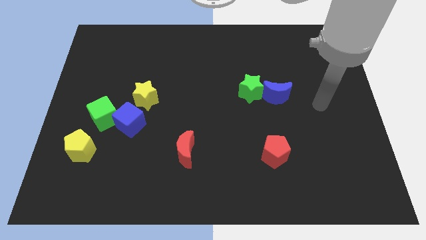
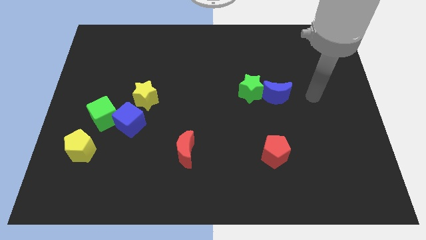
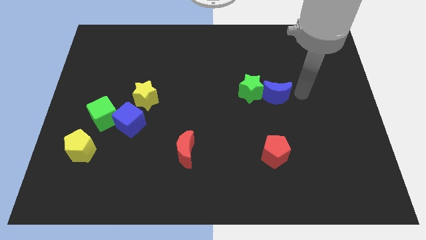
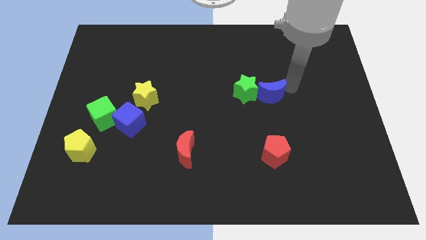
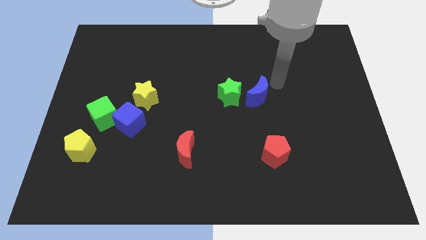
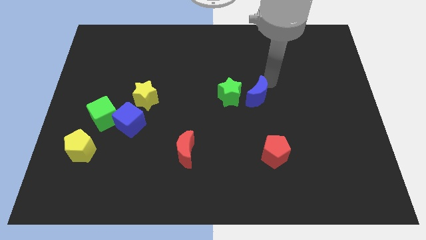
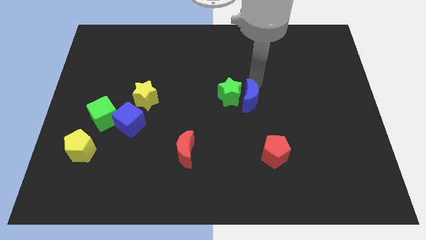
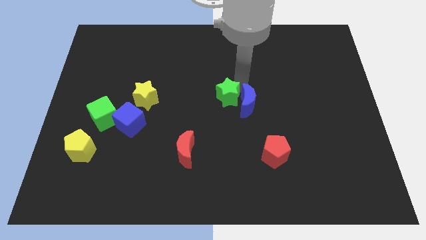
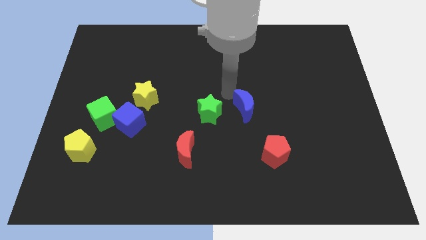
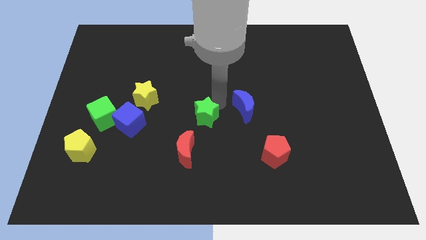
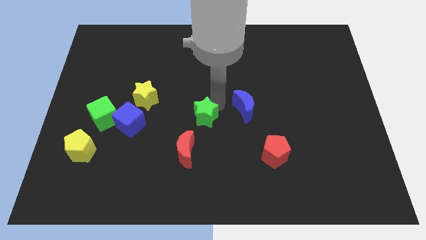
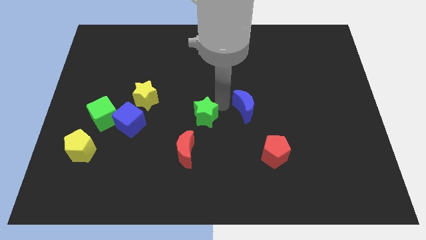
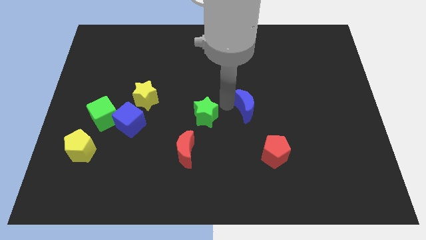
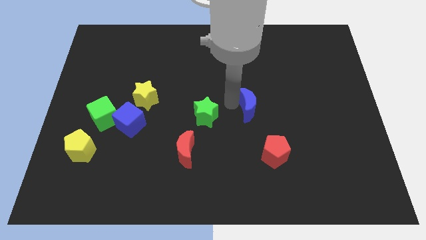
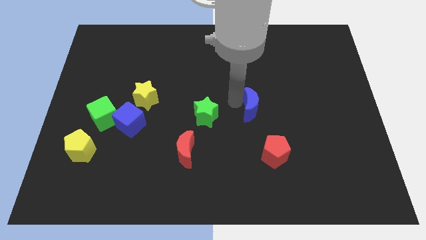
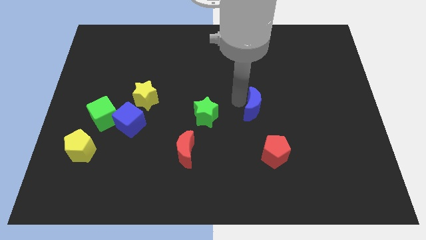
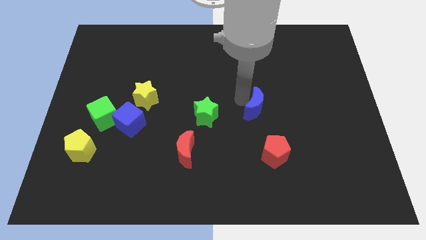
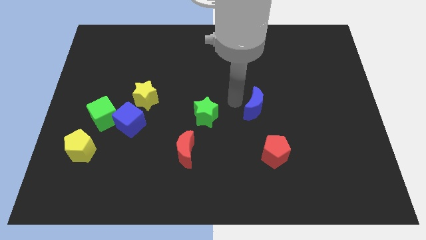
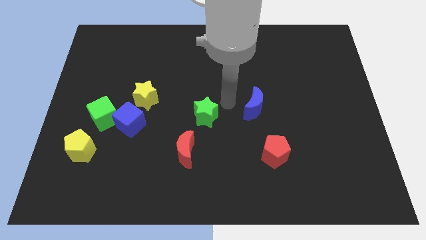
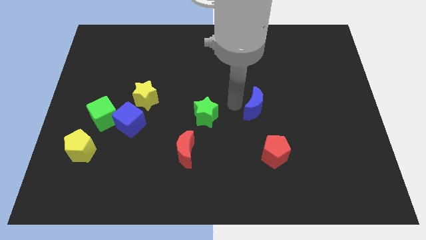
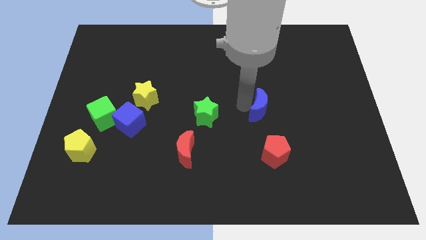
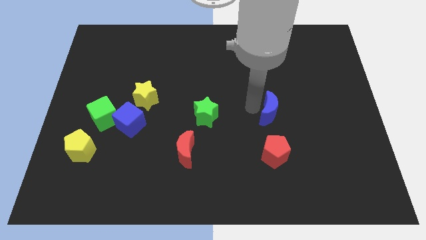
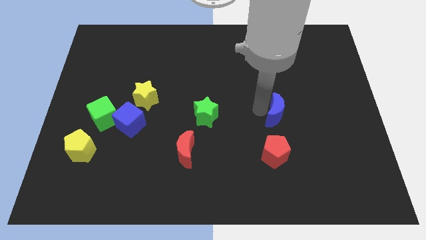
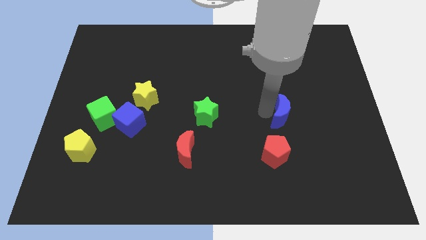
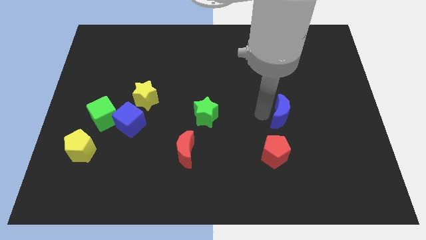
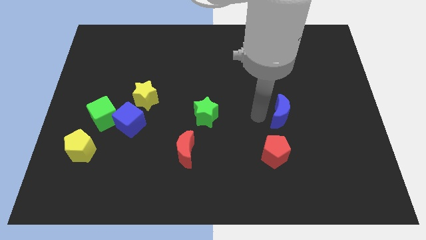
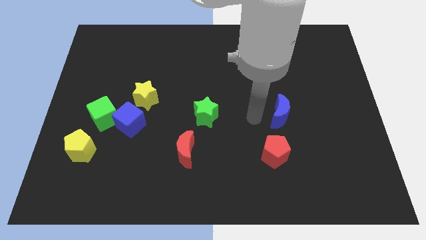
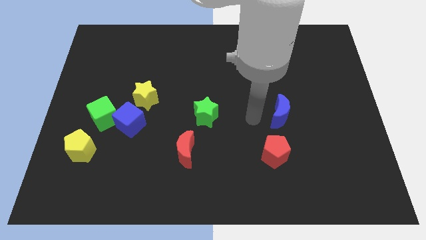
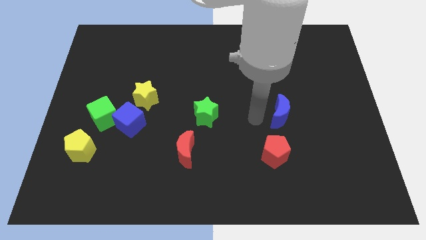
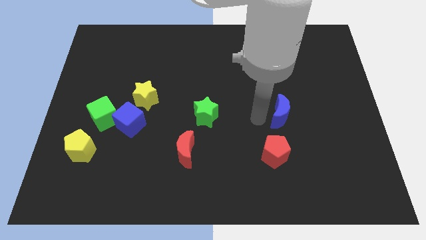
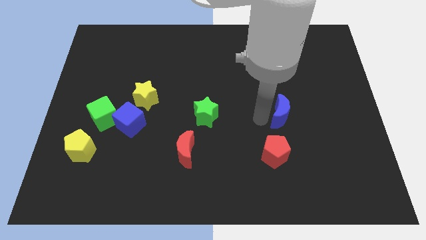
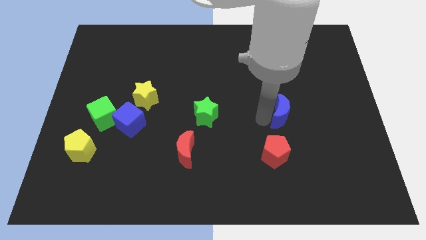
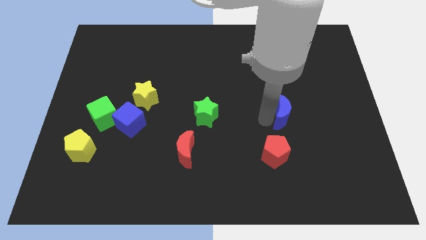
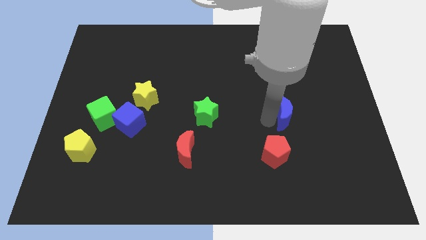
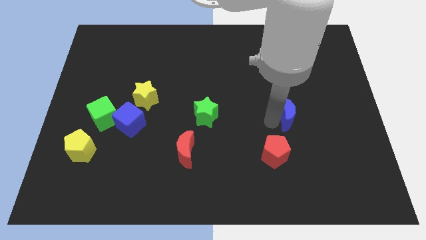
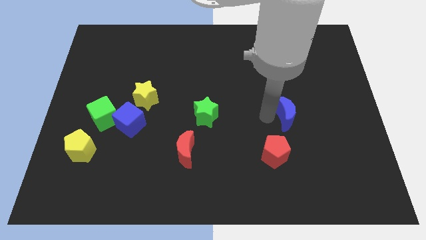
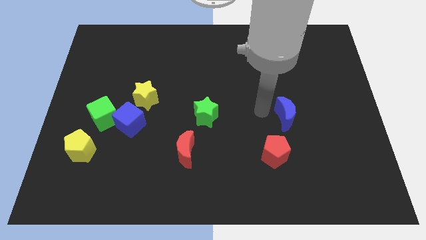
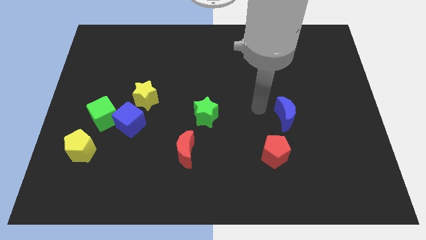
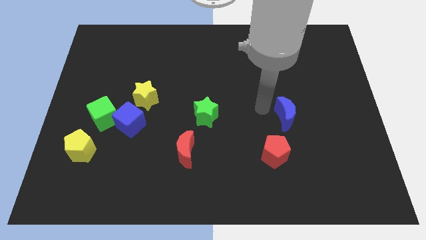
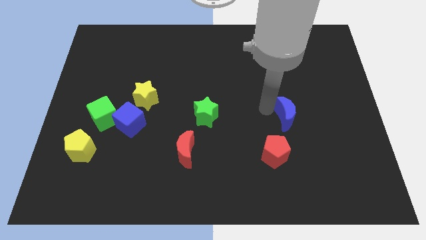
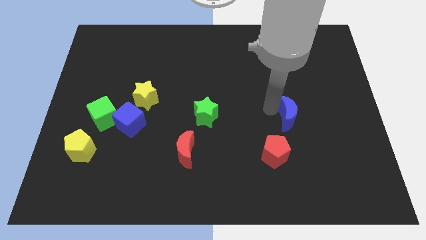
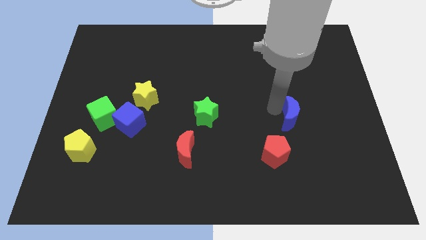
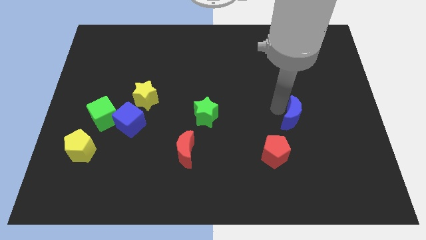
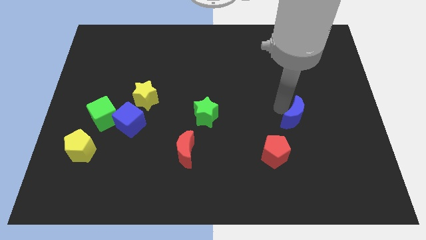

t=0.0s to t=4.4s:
push the blue moon somewhat down and right

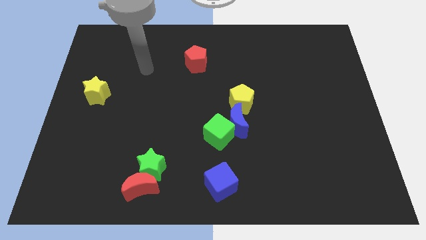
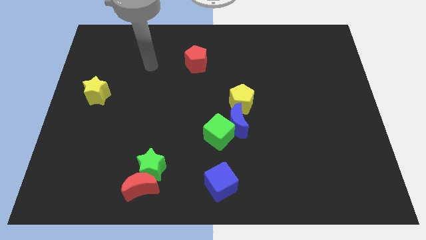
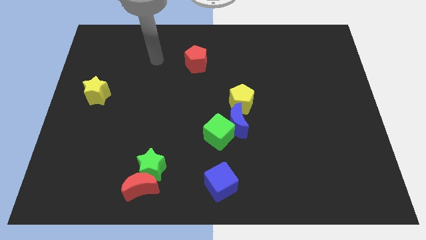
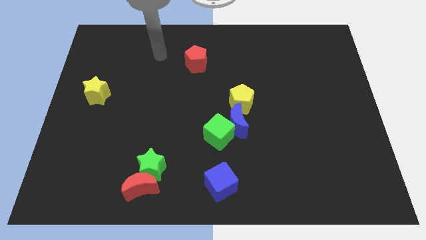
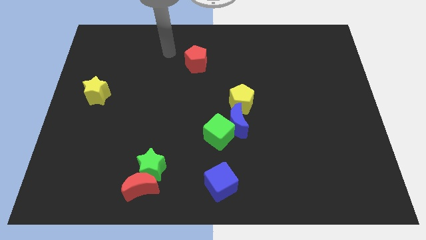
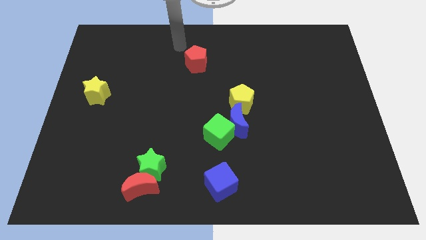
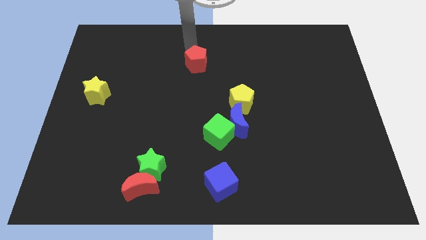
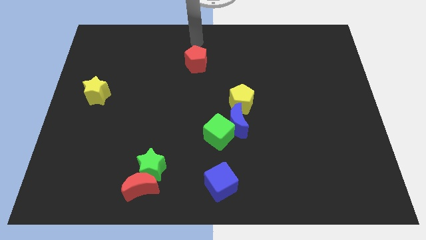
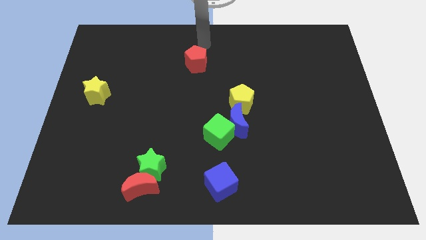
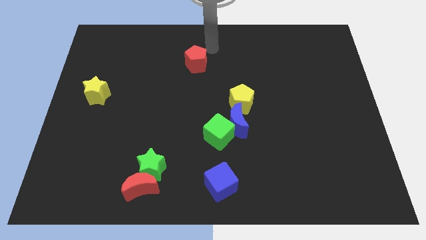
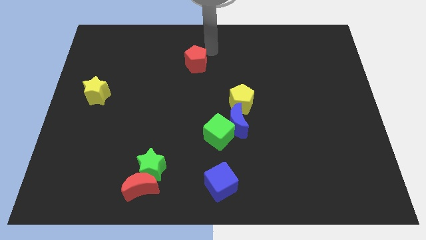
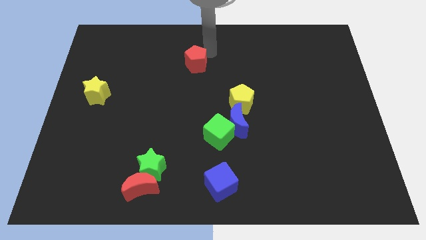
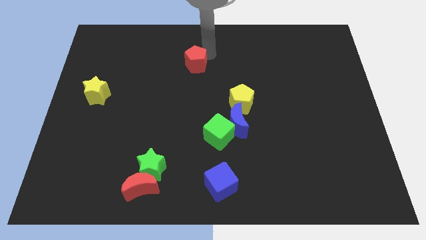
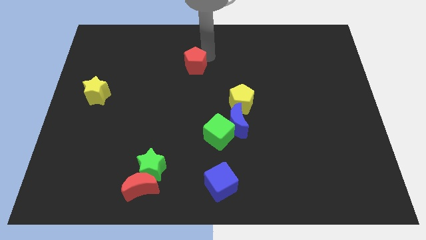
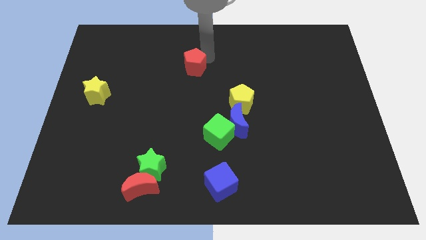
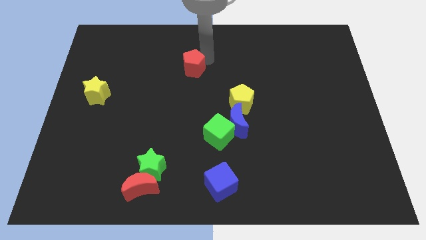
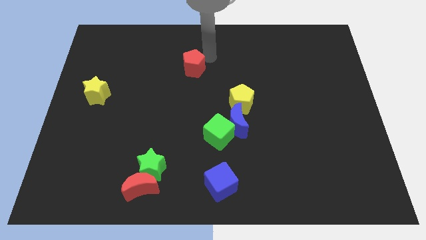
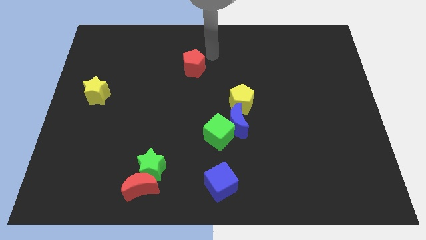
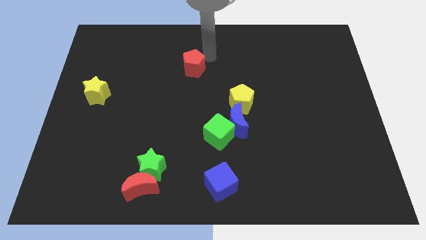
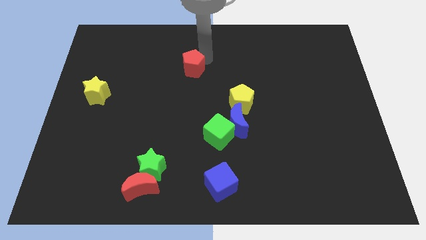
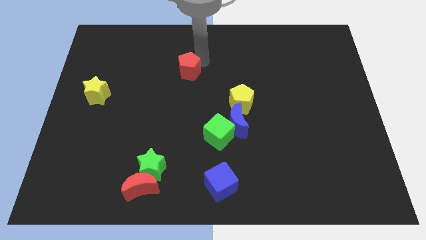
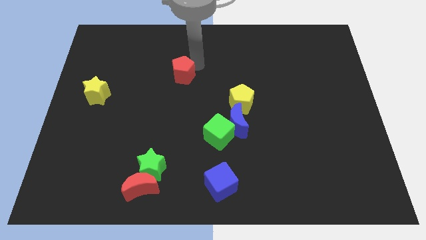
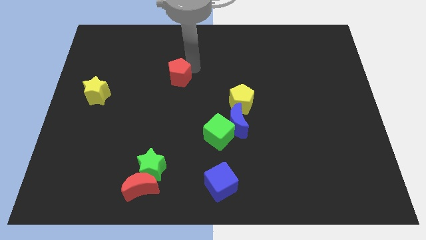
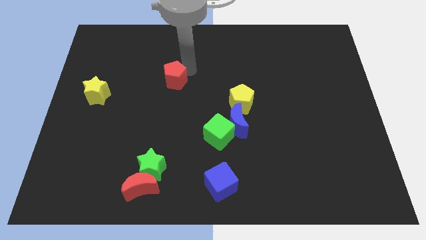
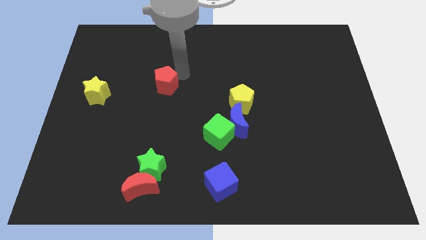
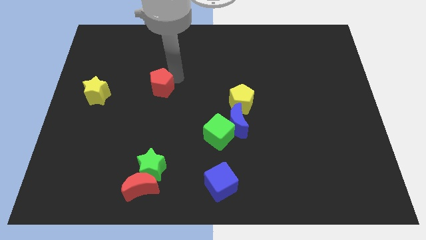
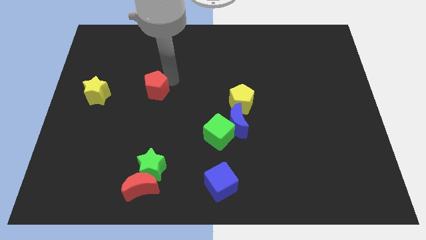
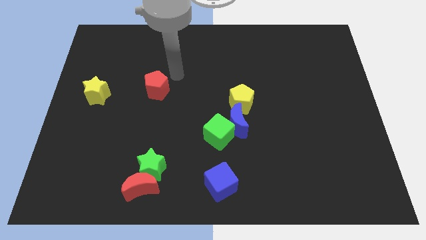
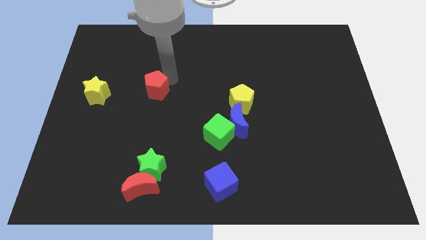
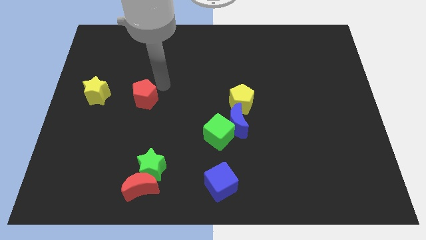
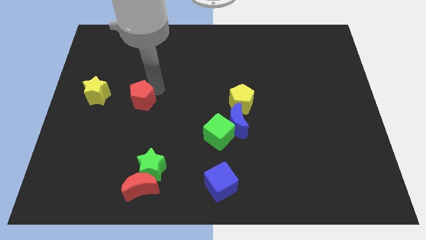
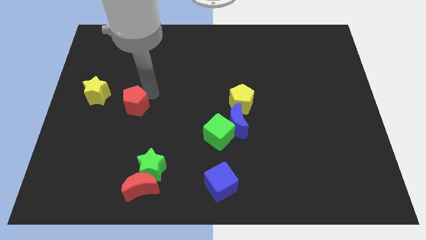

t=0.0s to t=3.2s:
slide the red pentagon downwards and to the left diagonally

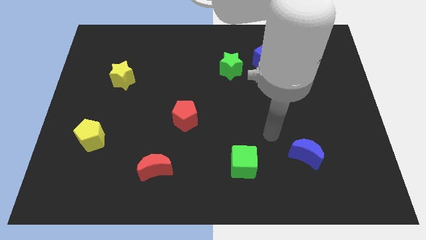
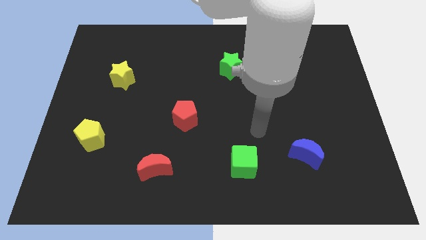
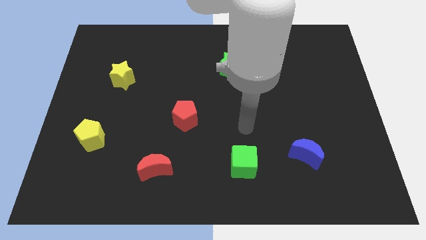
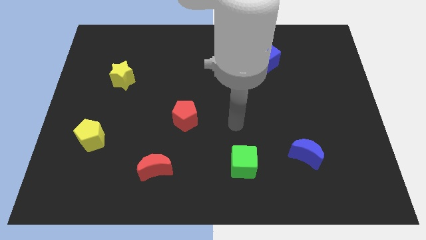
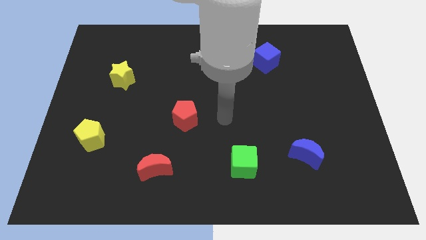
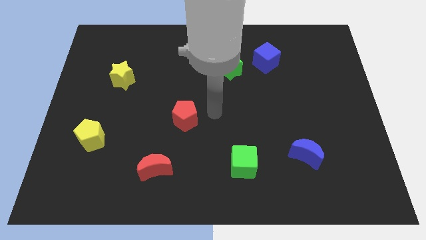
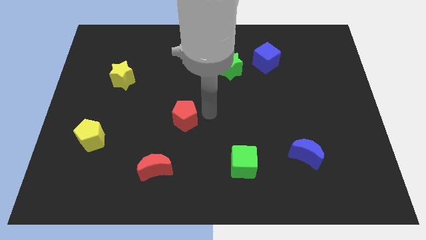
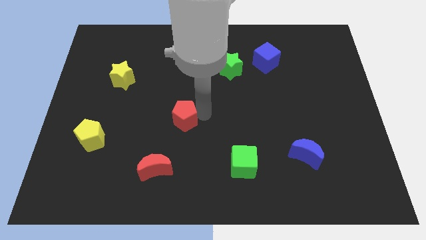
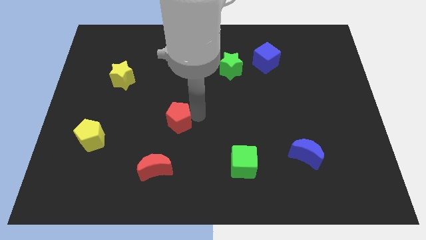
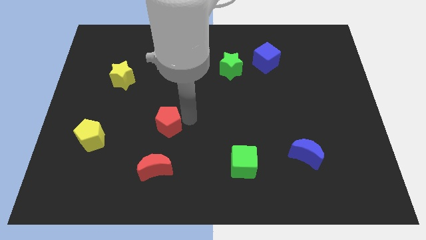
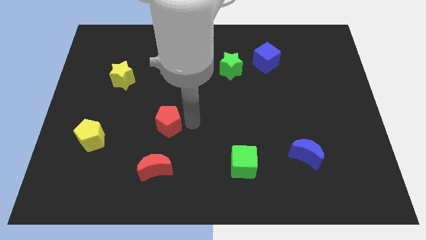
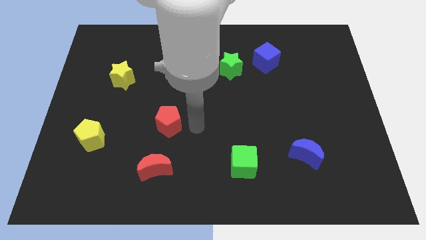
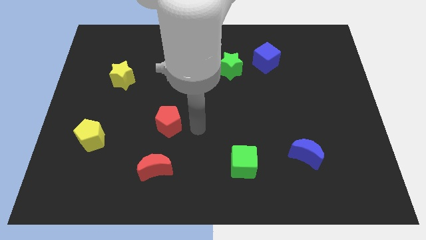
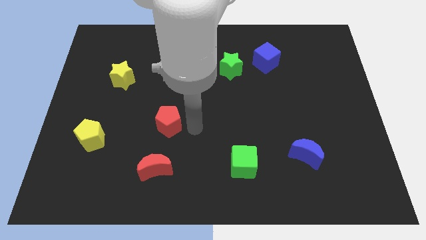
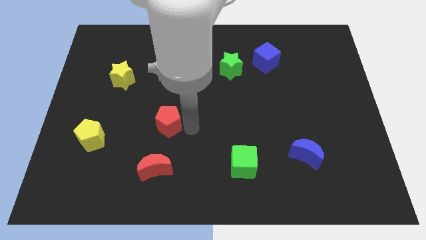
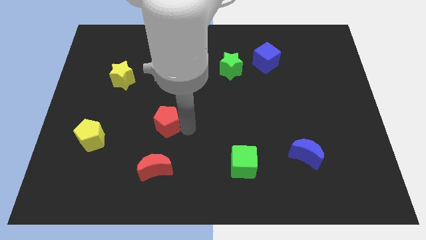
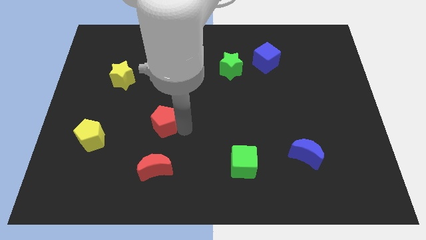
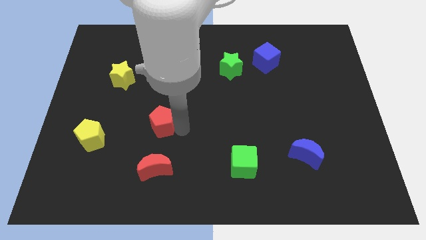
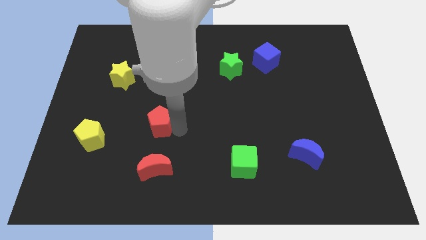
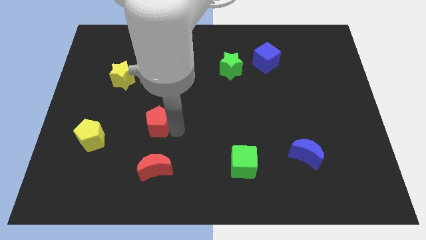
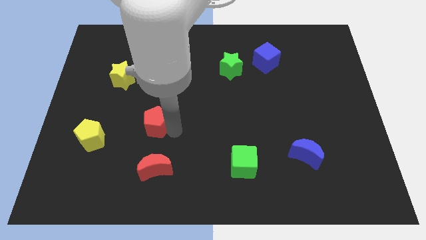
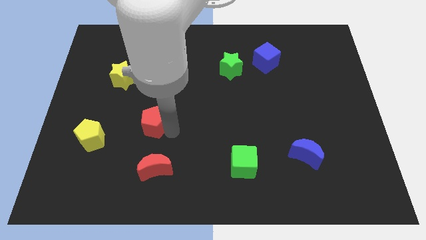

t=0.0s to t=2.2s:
push the red pentagon somewhat left
